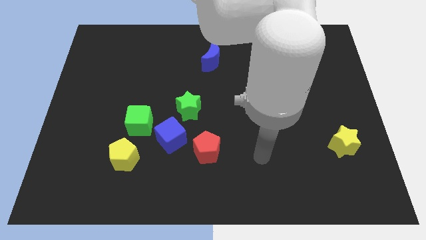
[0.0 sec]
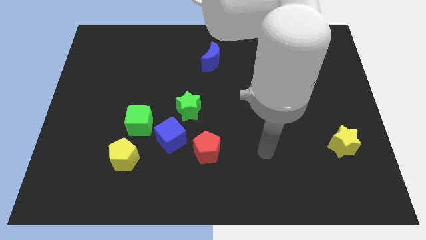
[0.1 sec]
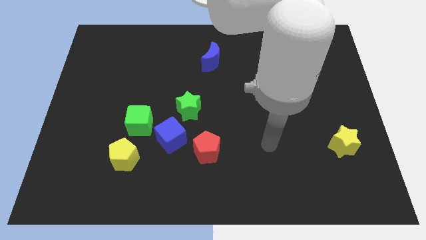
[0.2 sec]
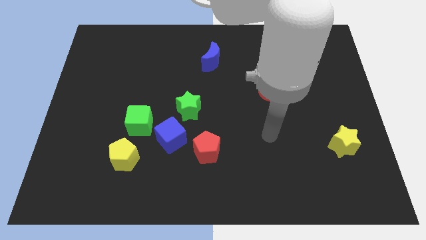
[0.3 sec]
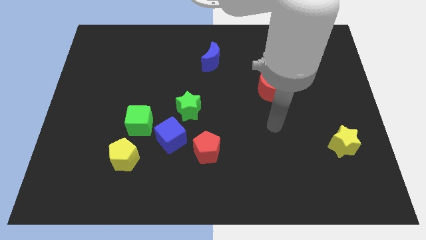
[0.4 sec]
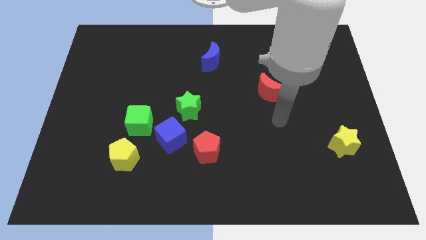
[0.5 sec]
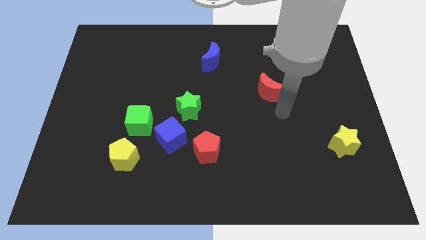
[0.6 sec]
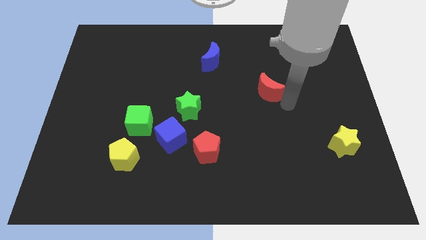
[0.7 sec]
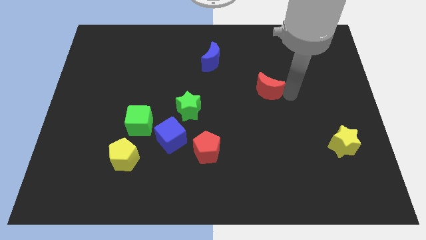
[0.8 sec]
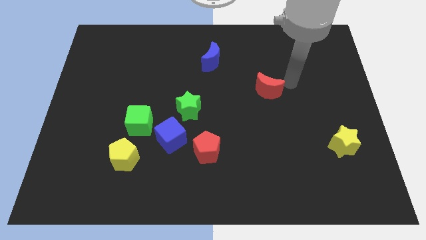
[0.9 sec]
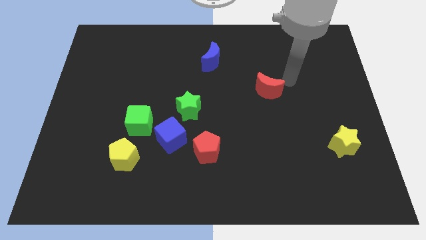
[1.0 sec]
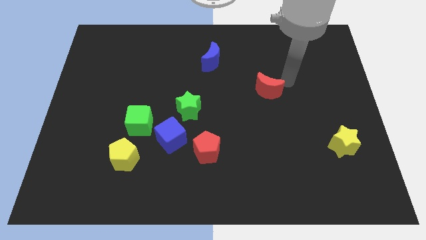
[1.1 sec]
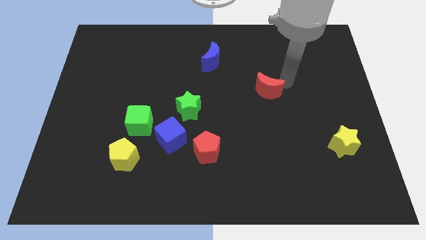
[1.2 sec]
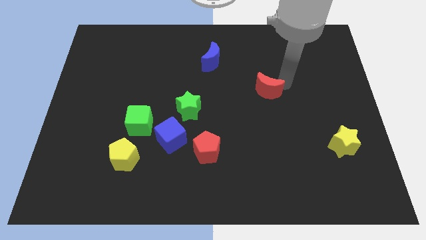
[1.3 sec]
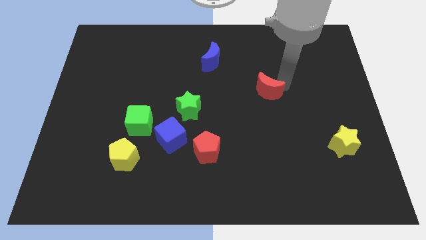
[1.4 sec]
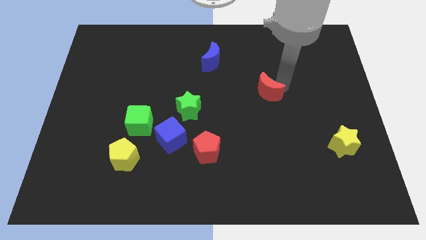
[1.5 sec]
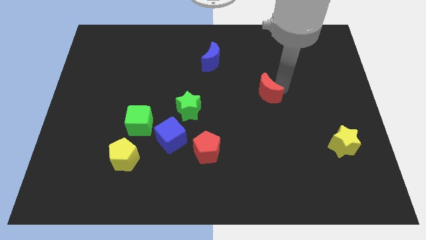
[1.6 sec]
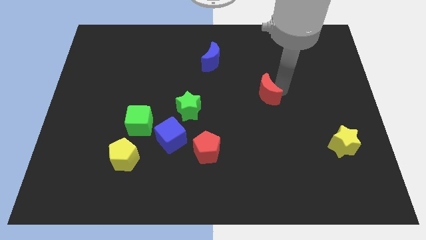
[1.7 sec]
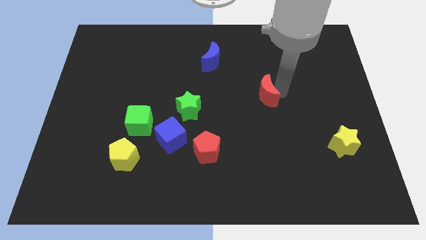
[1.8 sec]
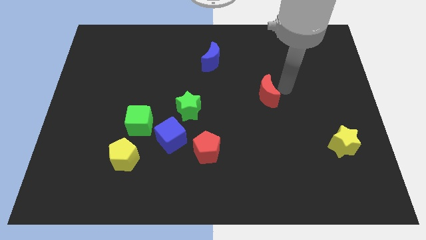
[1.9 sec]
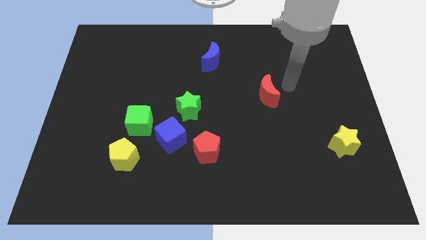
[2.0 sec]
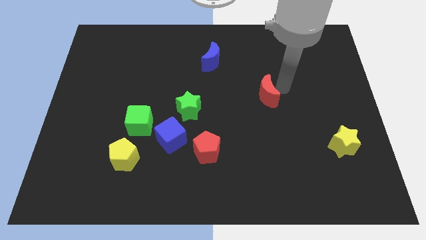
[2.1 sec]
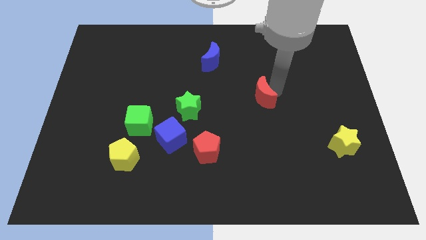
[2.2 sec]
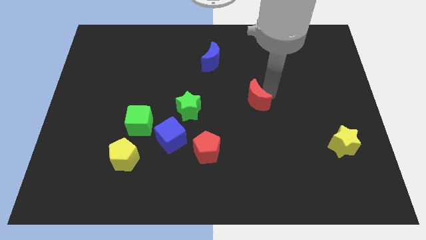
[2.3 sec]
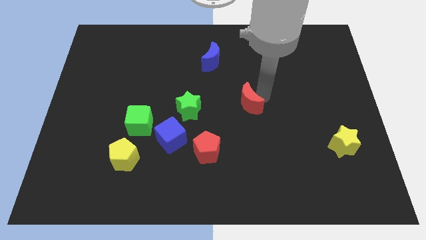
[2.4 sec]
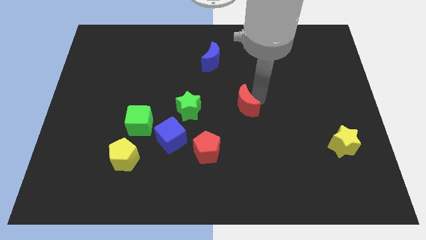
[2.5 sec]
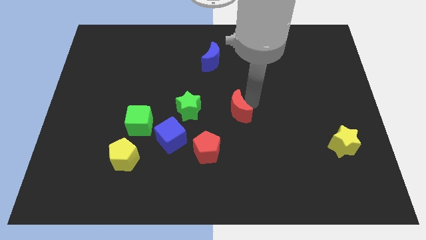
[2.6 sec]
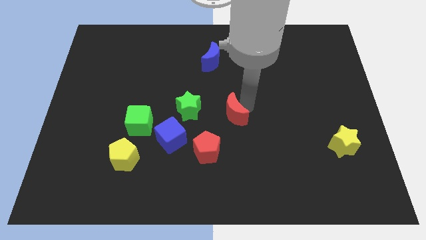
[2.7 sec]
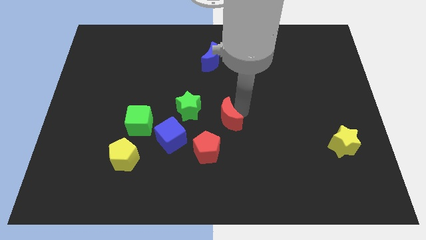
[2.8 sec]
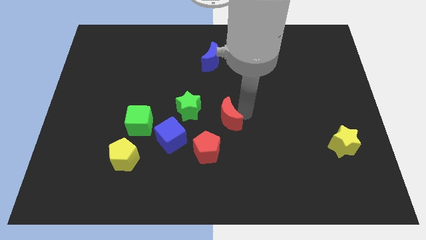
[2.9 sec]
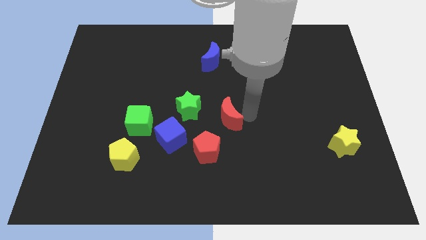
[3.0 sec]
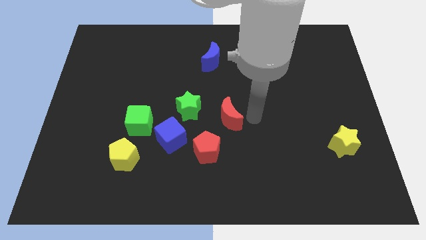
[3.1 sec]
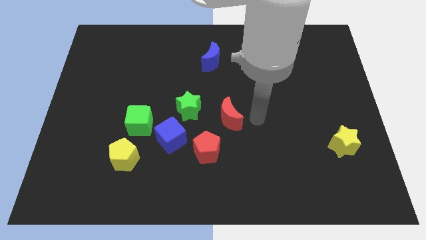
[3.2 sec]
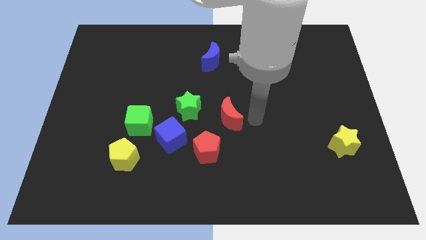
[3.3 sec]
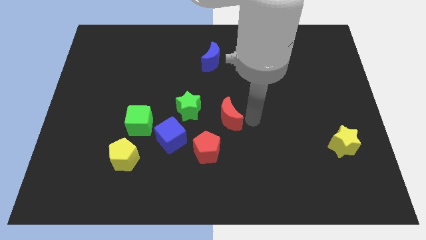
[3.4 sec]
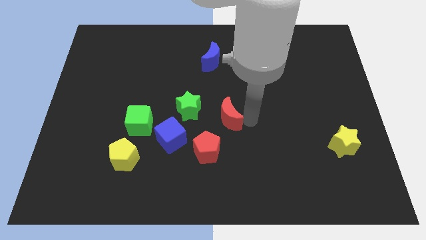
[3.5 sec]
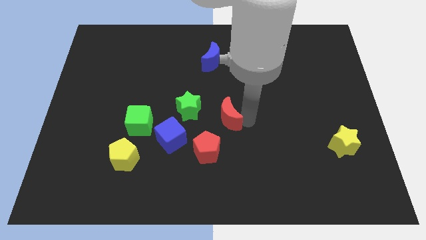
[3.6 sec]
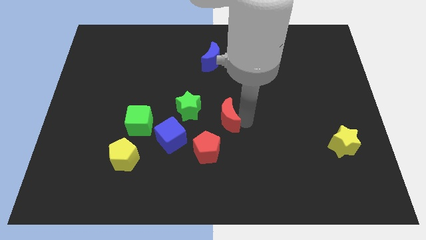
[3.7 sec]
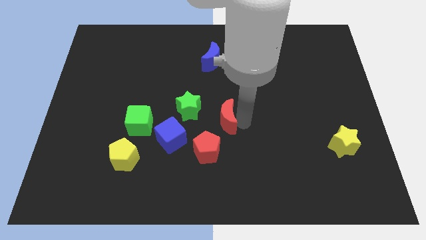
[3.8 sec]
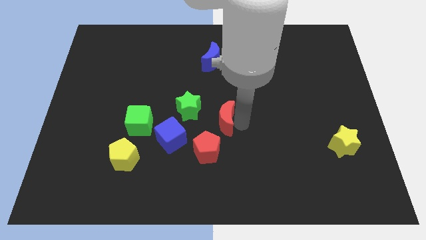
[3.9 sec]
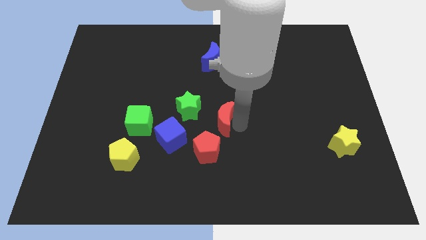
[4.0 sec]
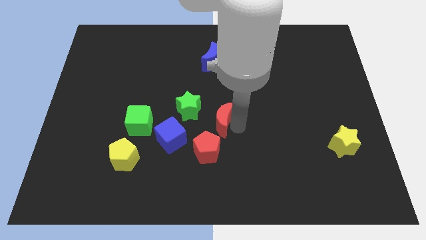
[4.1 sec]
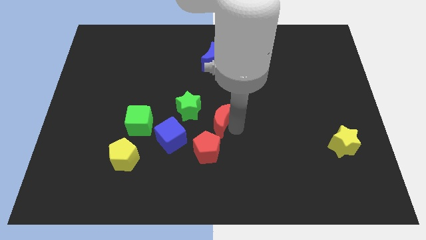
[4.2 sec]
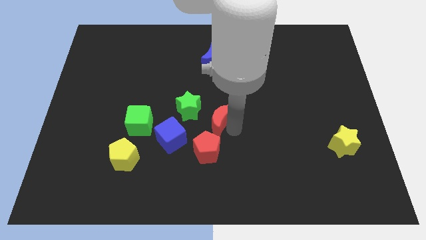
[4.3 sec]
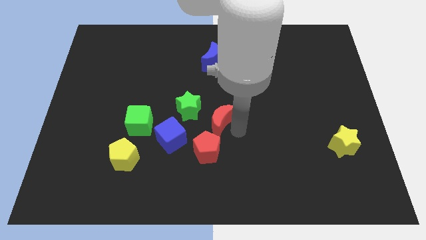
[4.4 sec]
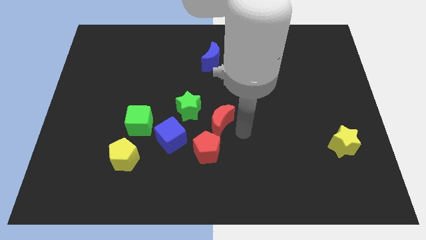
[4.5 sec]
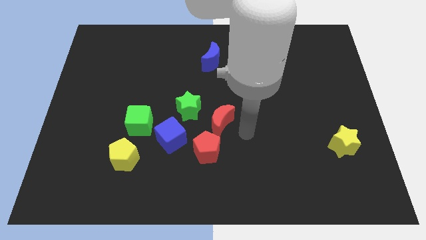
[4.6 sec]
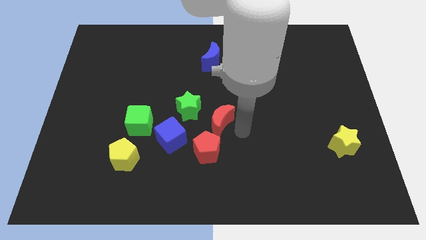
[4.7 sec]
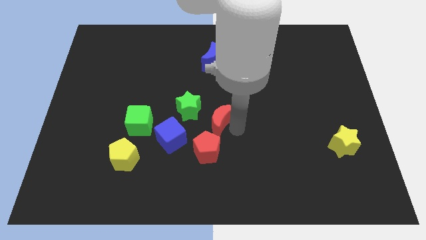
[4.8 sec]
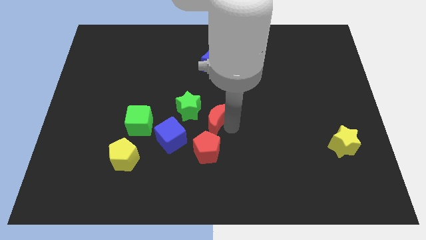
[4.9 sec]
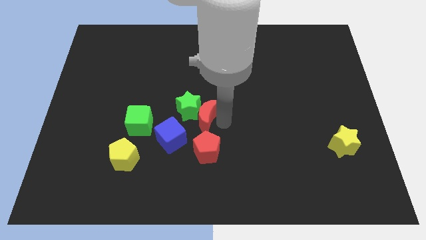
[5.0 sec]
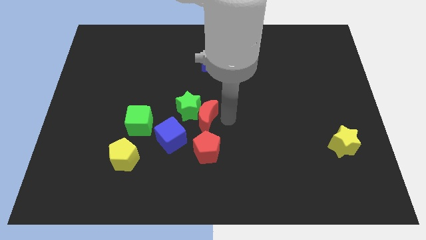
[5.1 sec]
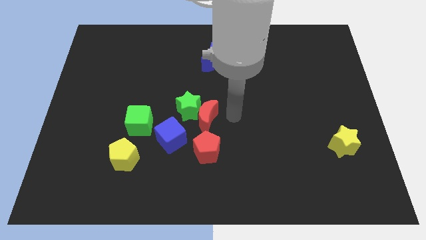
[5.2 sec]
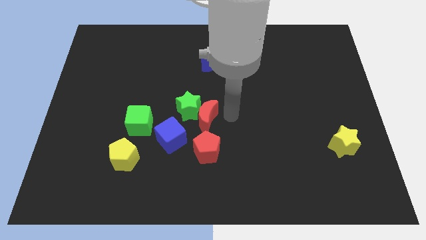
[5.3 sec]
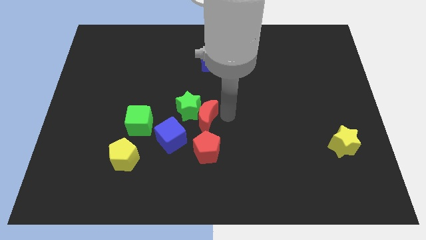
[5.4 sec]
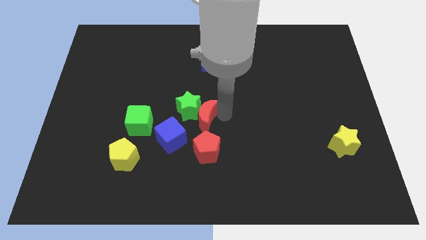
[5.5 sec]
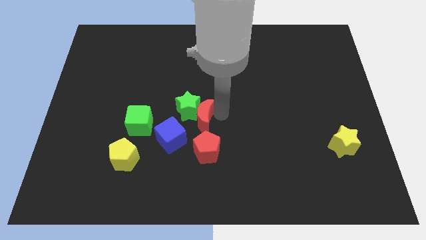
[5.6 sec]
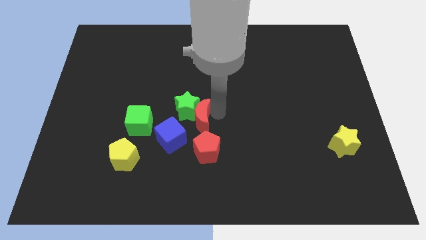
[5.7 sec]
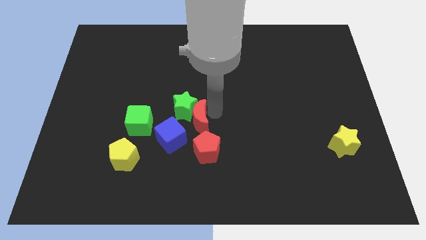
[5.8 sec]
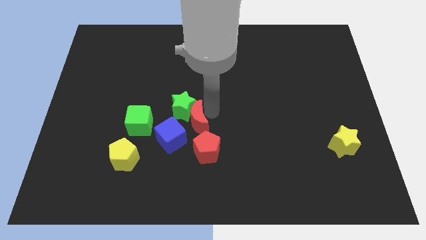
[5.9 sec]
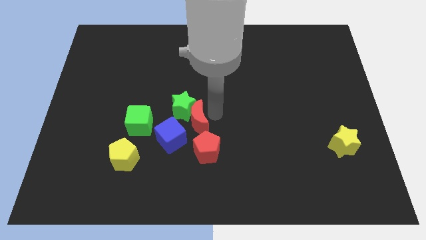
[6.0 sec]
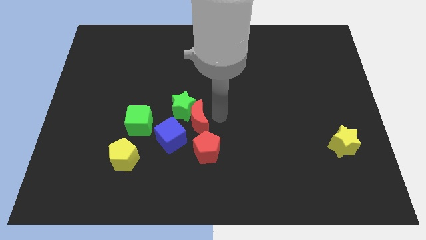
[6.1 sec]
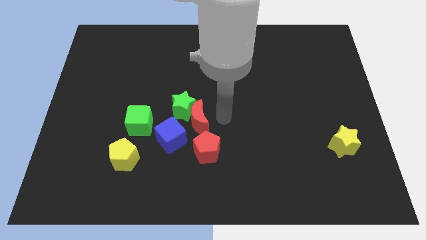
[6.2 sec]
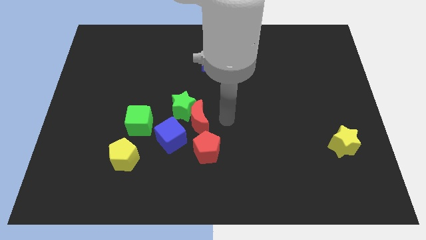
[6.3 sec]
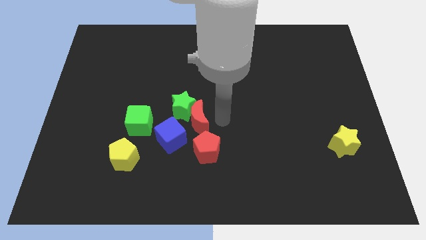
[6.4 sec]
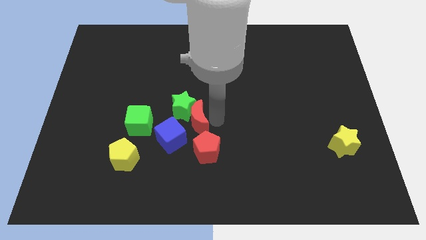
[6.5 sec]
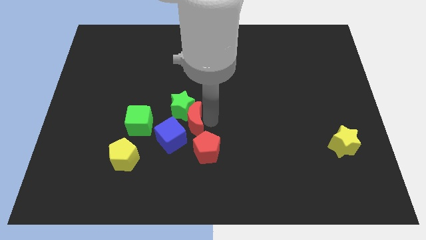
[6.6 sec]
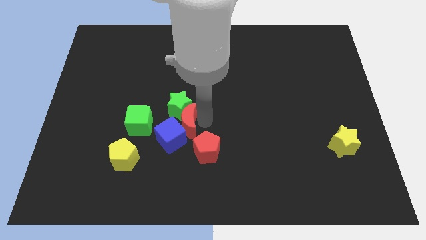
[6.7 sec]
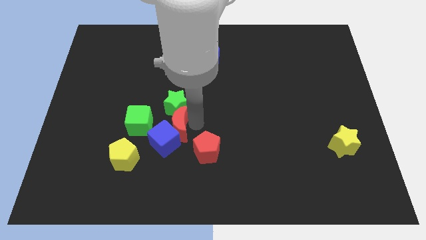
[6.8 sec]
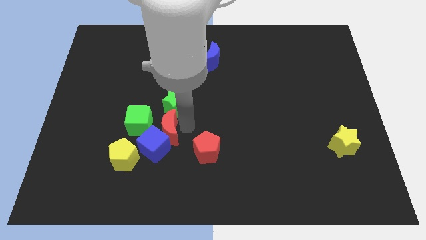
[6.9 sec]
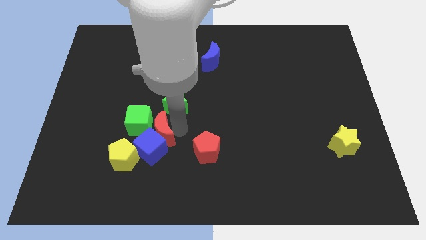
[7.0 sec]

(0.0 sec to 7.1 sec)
push the red moon close to the green cube
